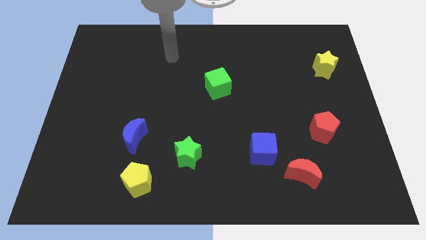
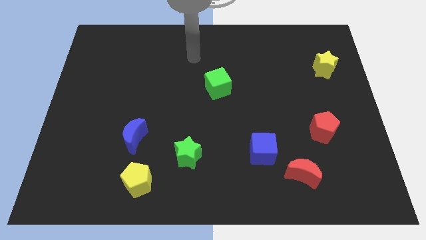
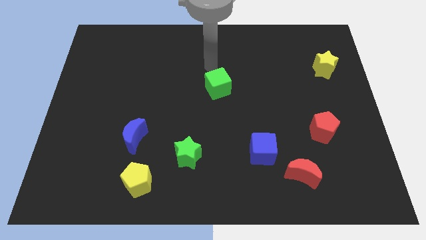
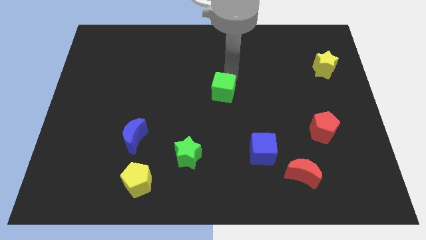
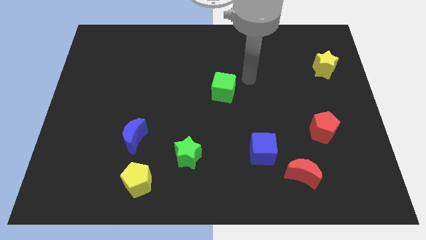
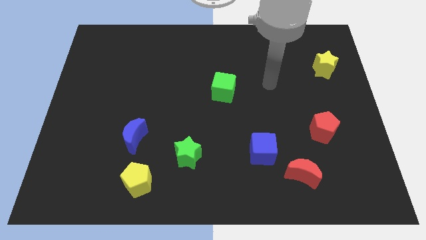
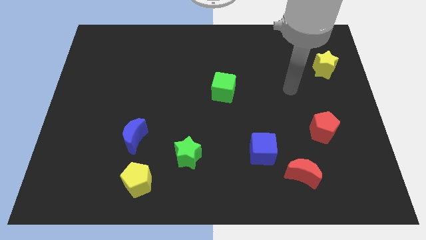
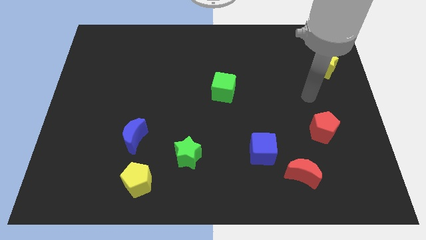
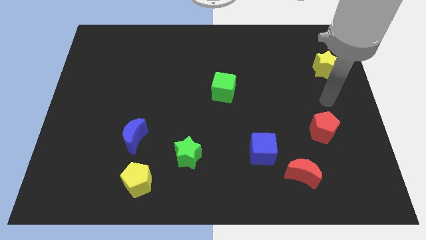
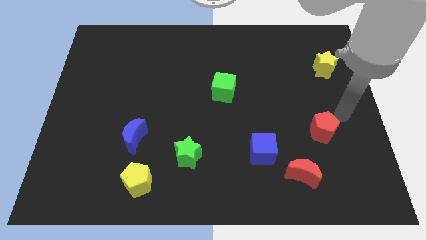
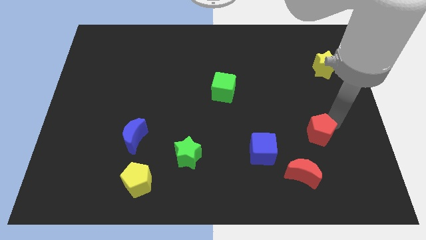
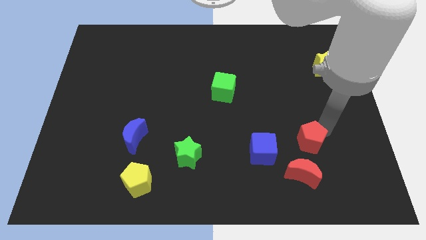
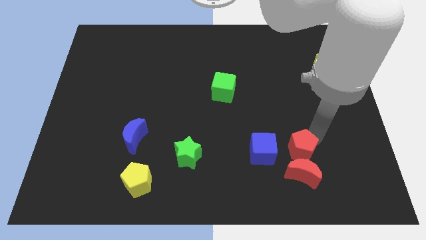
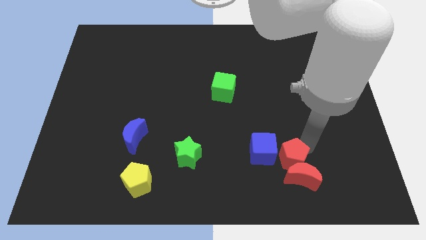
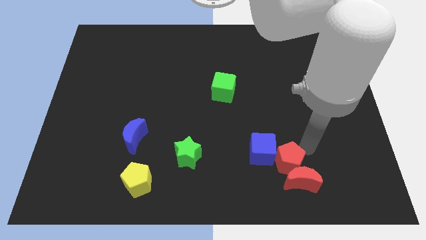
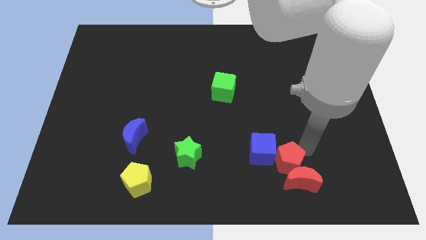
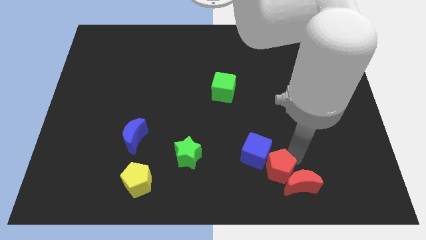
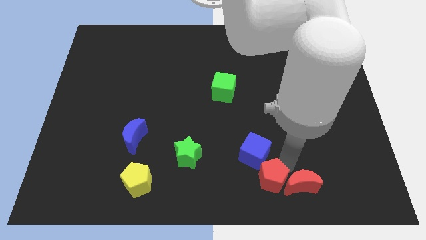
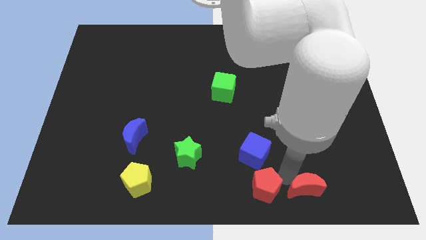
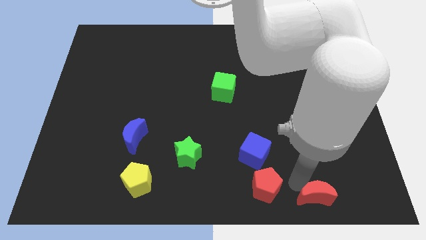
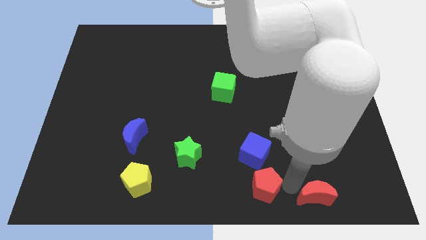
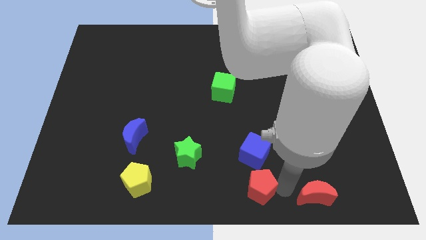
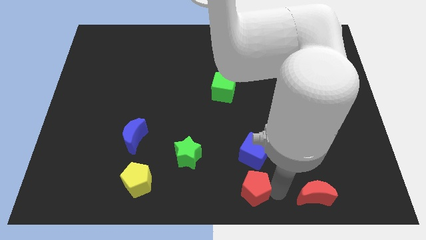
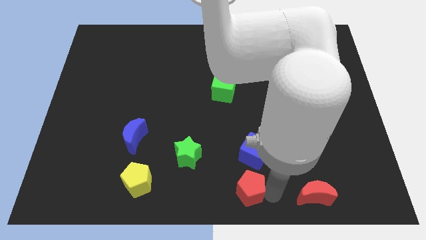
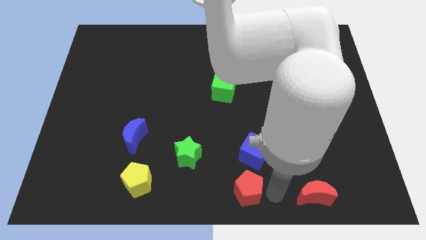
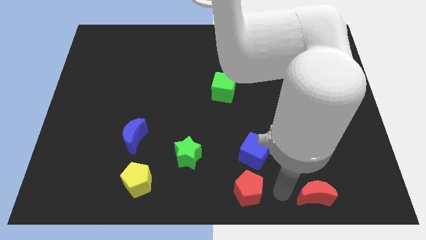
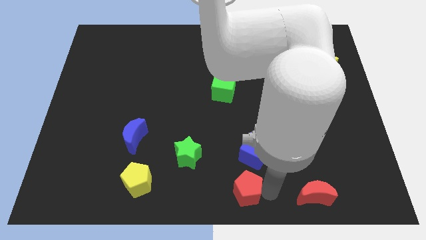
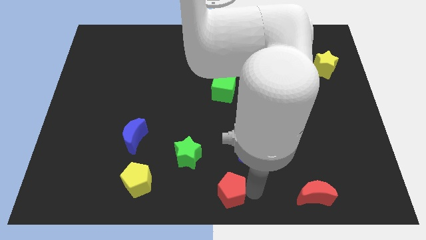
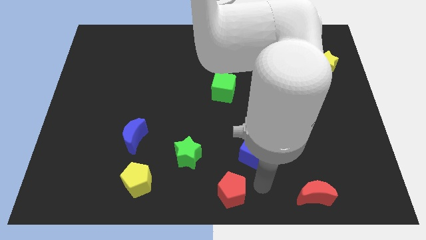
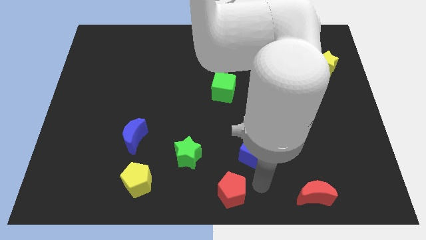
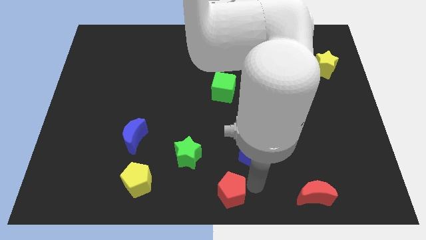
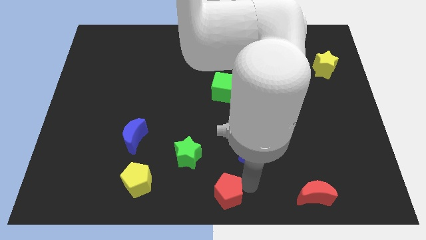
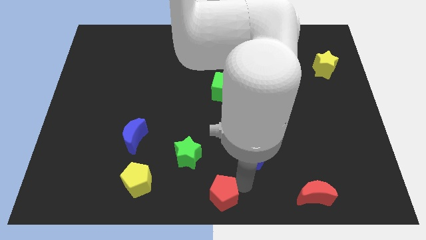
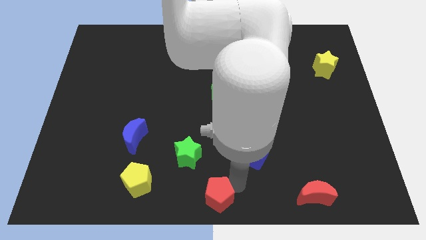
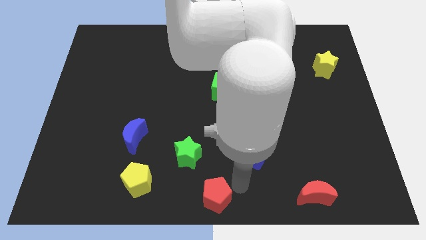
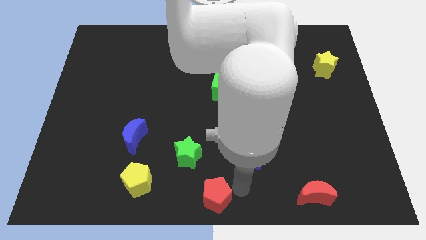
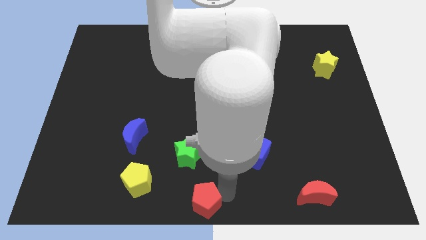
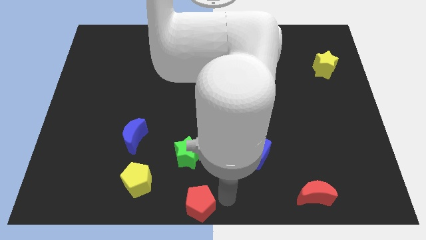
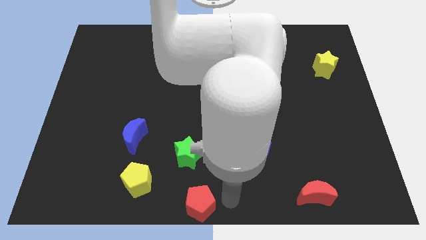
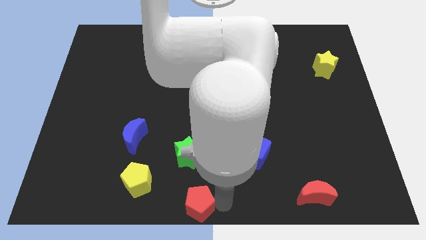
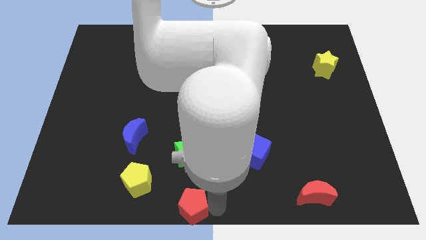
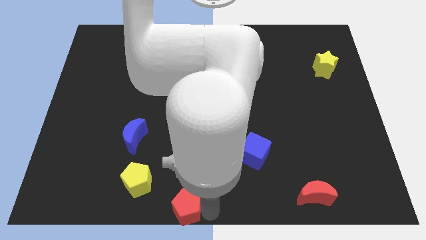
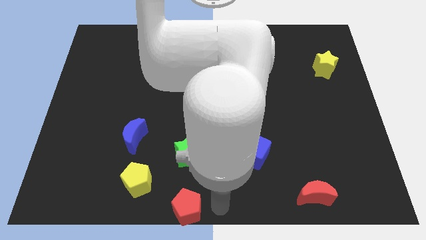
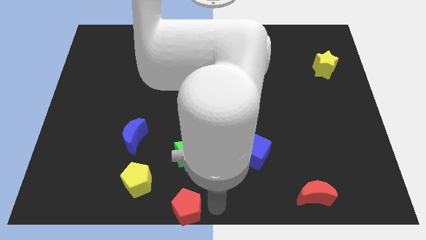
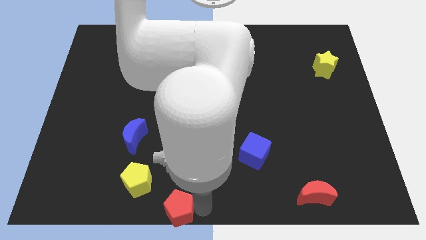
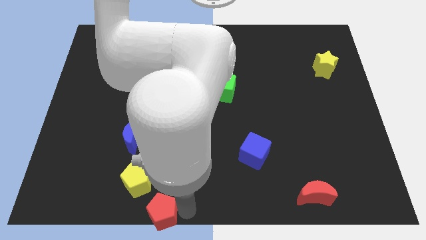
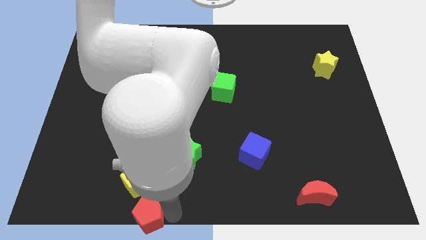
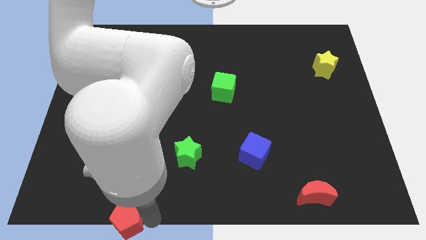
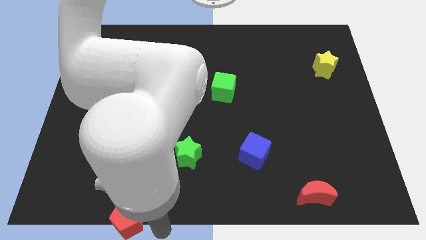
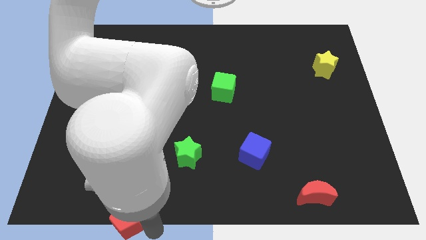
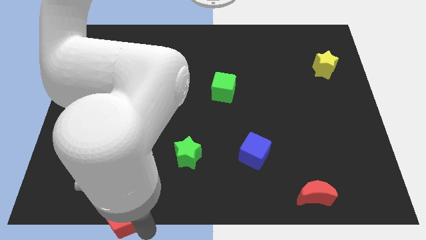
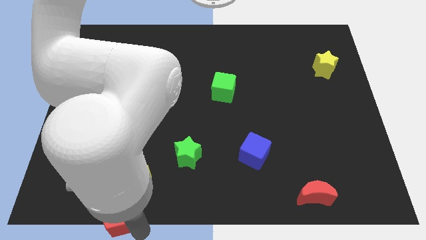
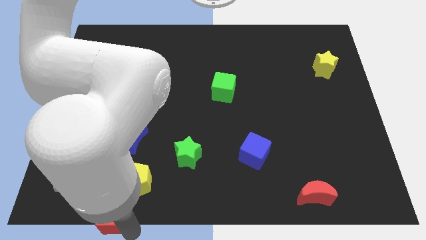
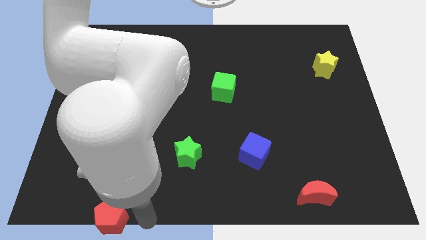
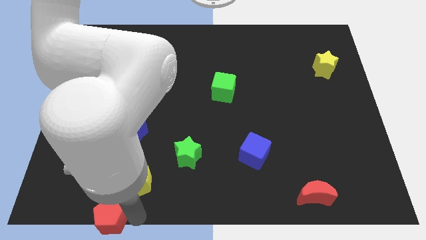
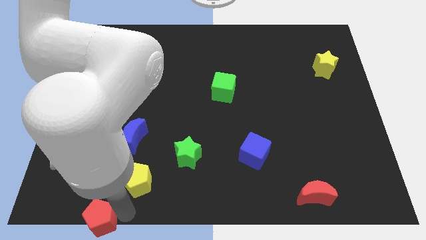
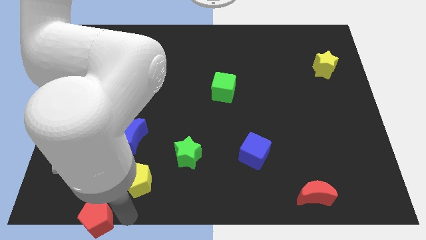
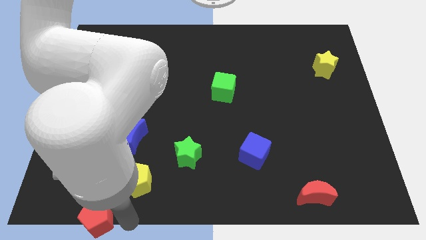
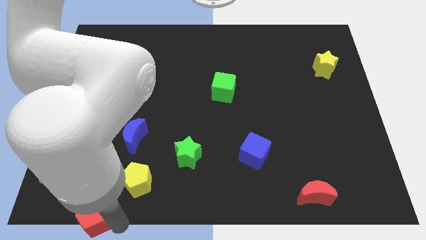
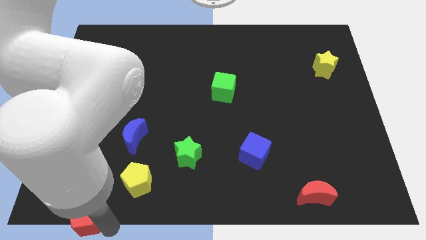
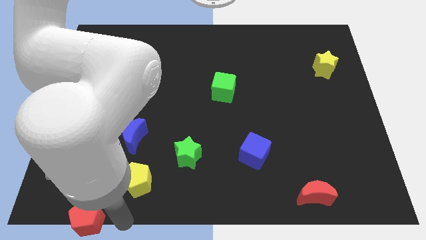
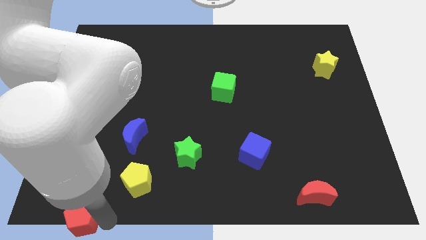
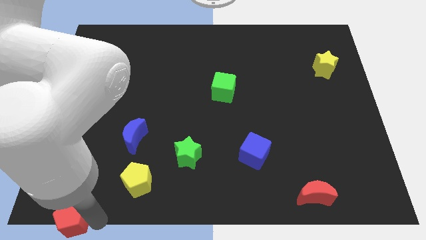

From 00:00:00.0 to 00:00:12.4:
move the red pentagon to the lower left corner
